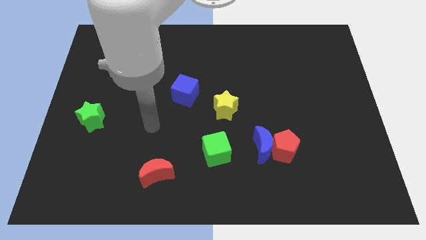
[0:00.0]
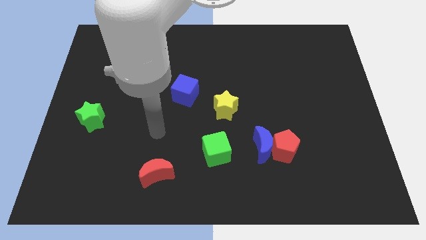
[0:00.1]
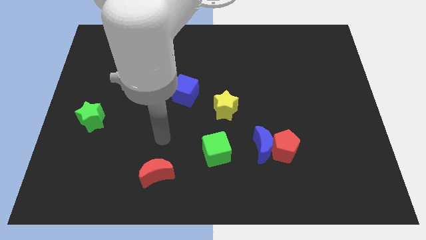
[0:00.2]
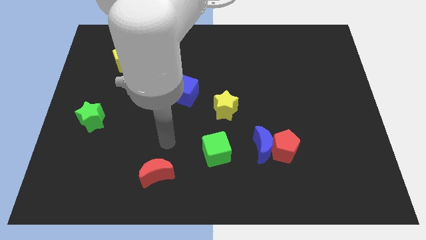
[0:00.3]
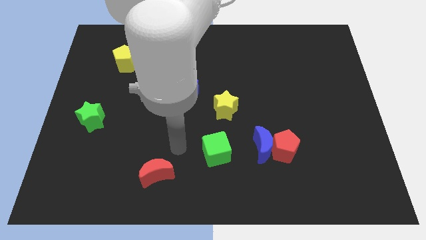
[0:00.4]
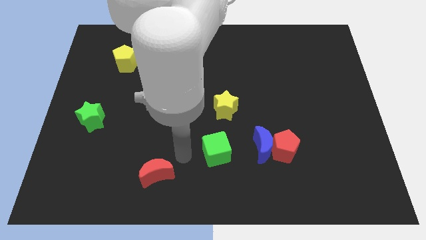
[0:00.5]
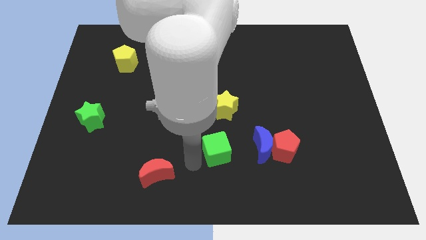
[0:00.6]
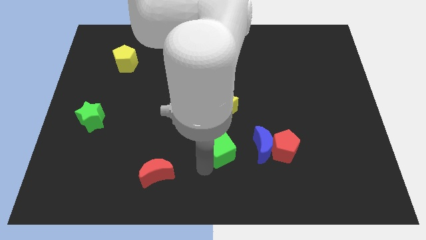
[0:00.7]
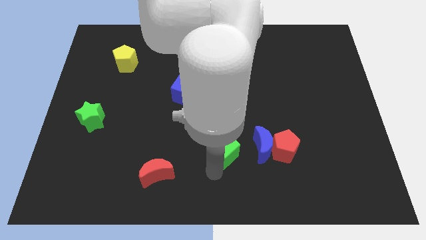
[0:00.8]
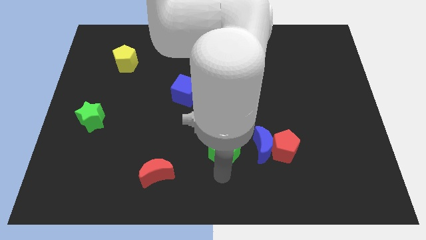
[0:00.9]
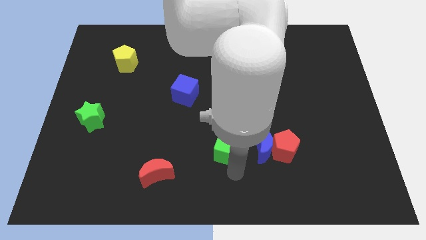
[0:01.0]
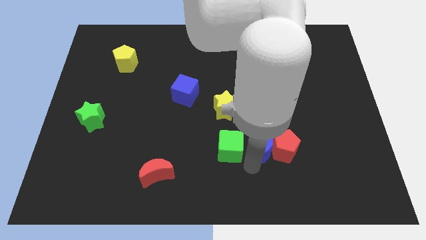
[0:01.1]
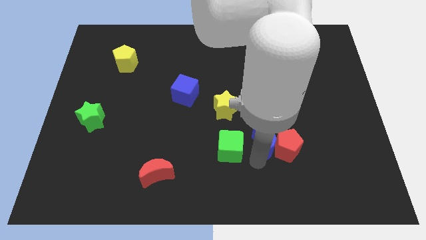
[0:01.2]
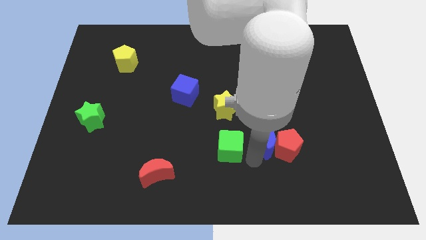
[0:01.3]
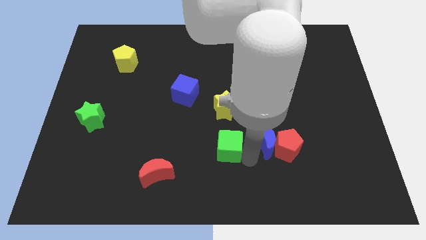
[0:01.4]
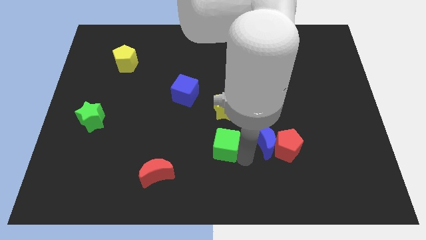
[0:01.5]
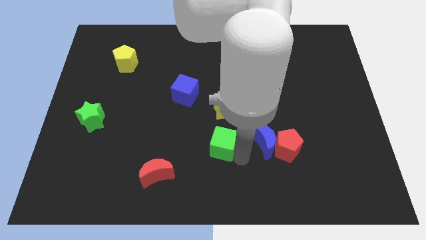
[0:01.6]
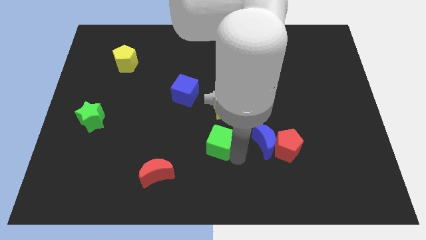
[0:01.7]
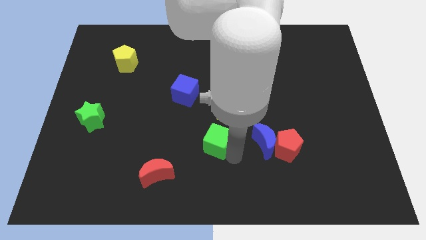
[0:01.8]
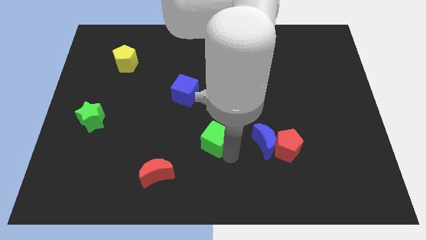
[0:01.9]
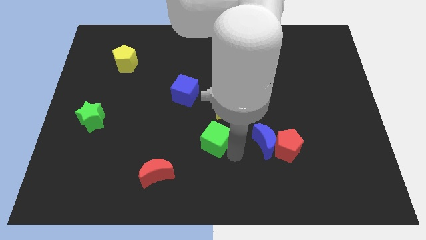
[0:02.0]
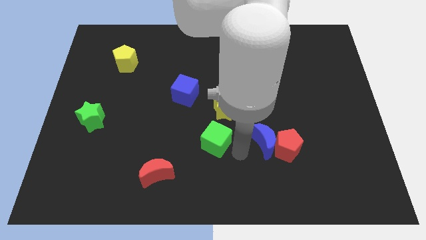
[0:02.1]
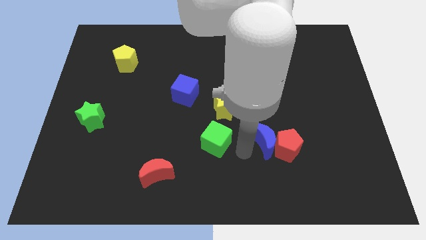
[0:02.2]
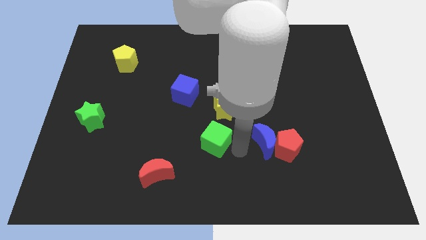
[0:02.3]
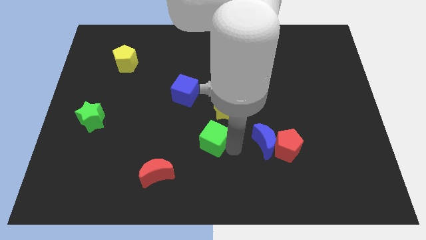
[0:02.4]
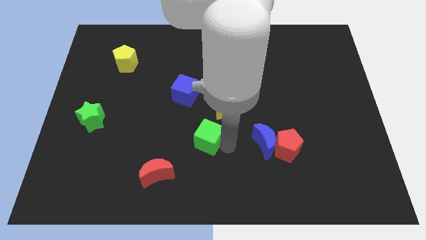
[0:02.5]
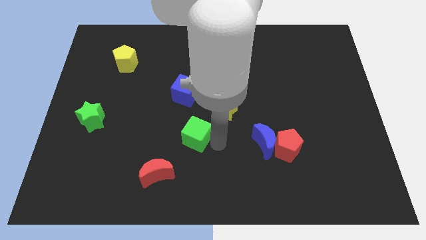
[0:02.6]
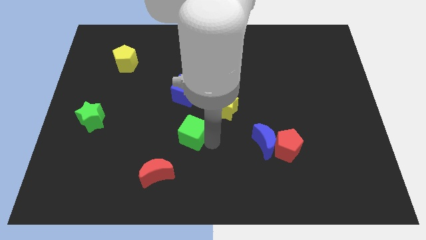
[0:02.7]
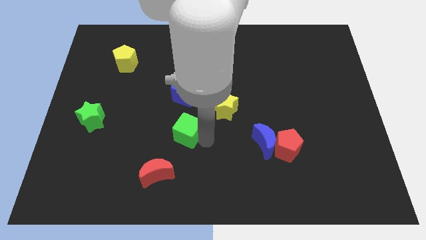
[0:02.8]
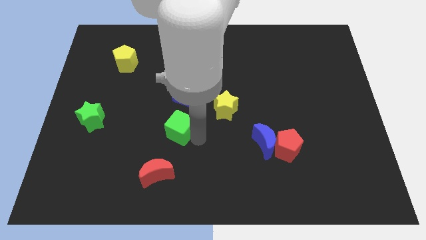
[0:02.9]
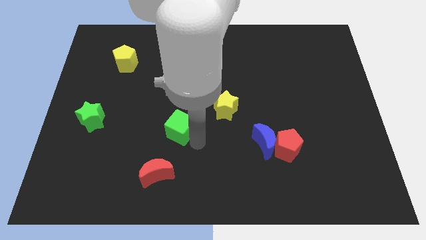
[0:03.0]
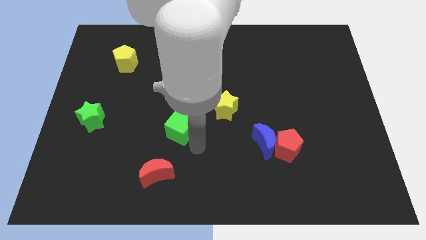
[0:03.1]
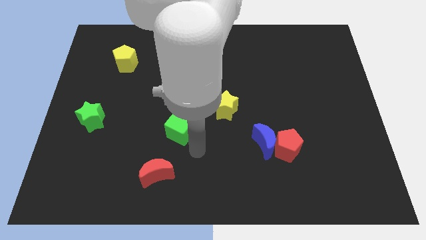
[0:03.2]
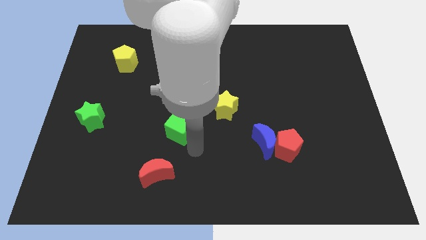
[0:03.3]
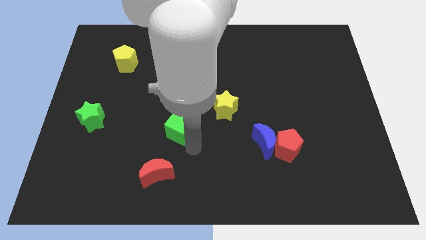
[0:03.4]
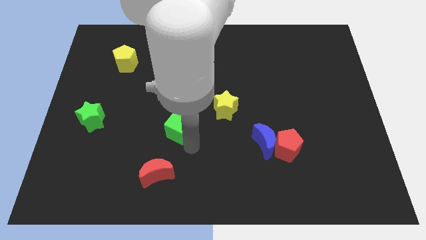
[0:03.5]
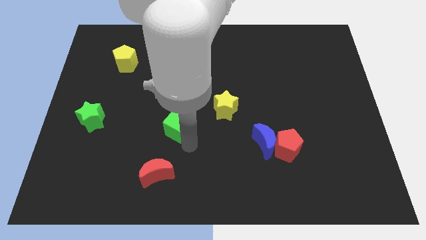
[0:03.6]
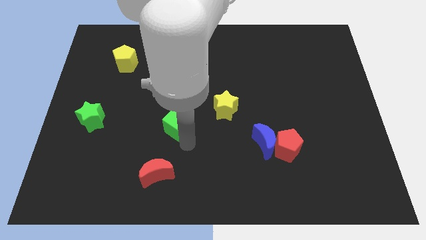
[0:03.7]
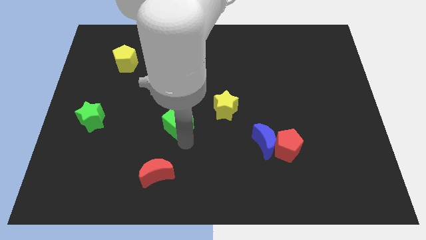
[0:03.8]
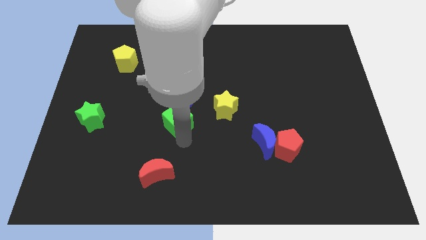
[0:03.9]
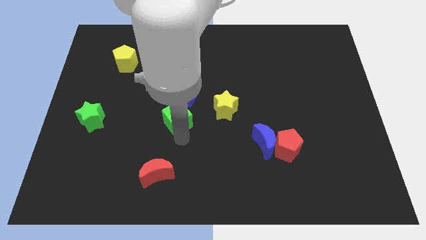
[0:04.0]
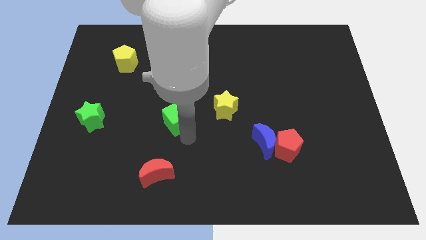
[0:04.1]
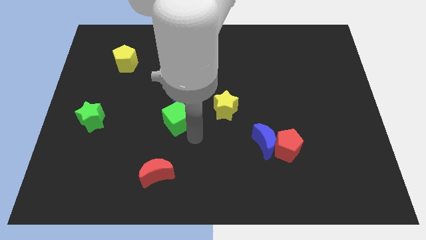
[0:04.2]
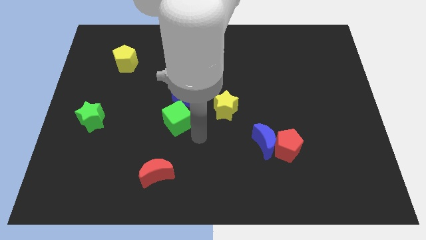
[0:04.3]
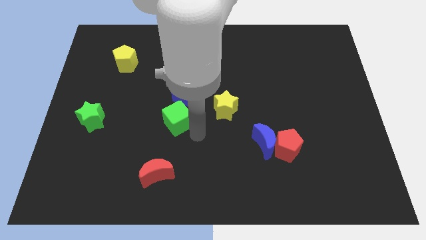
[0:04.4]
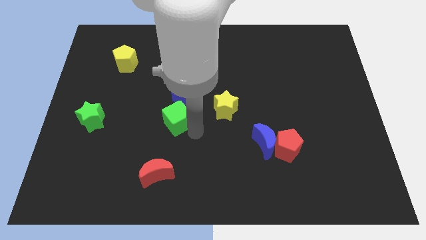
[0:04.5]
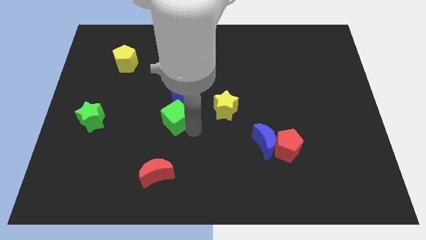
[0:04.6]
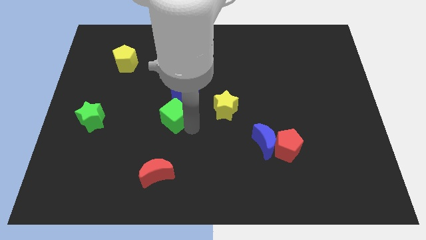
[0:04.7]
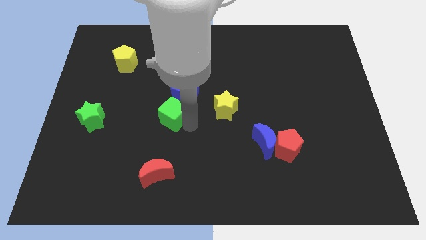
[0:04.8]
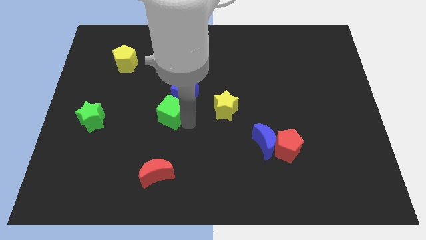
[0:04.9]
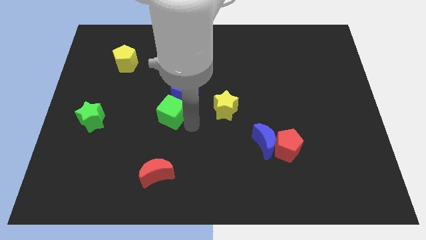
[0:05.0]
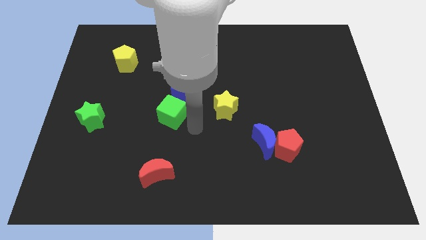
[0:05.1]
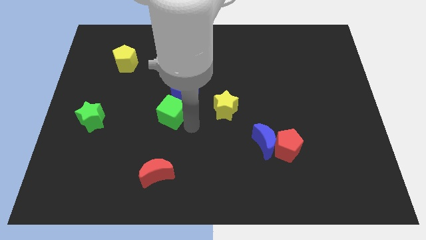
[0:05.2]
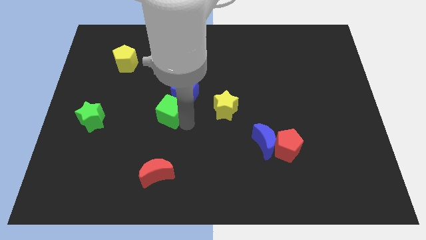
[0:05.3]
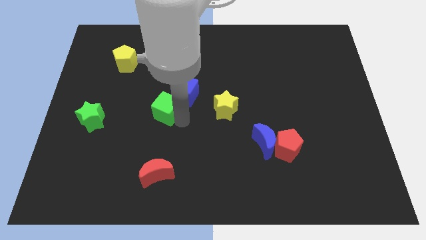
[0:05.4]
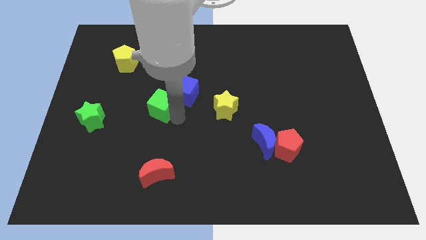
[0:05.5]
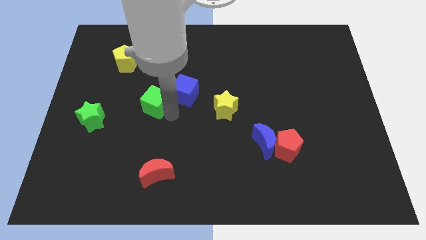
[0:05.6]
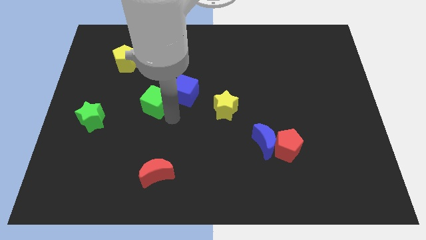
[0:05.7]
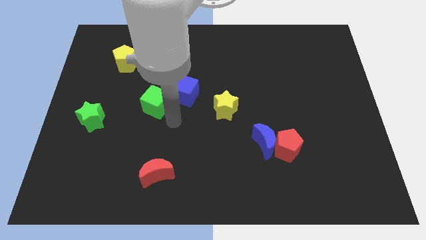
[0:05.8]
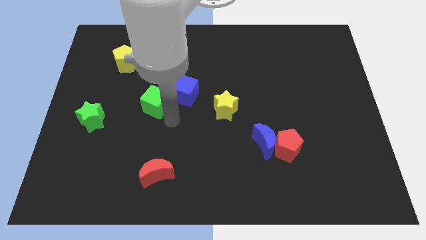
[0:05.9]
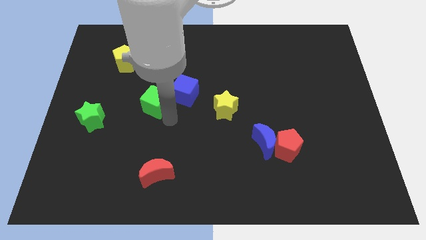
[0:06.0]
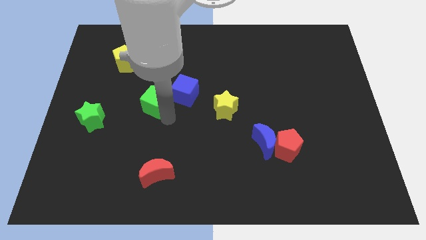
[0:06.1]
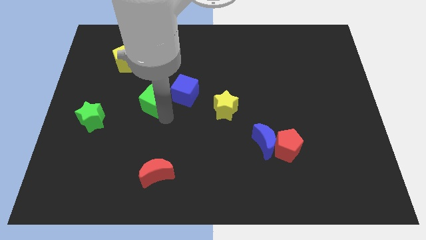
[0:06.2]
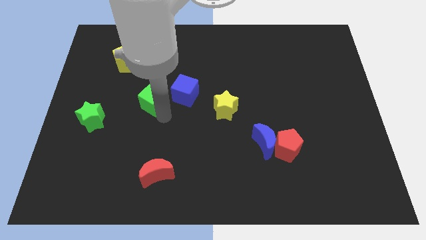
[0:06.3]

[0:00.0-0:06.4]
move the green cube diagonally up and to the left

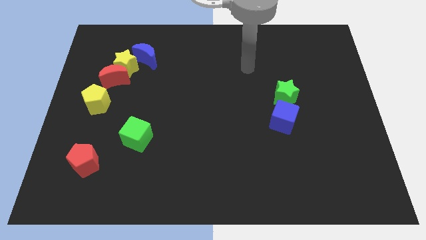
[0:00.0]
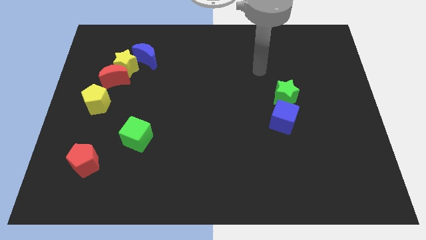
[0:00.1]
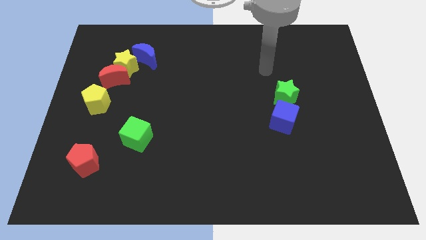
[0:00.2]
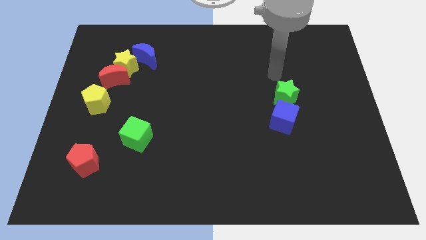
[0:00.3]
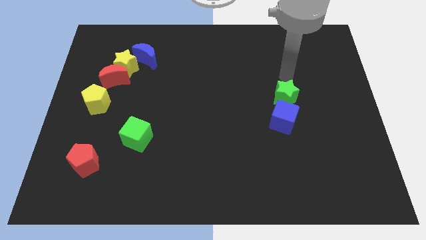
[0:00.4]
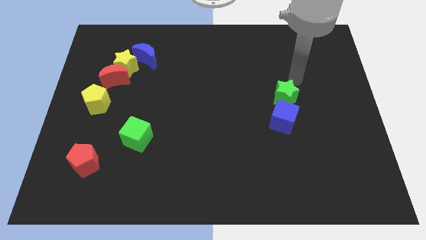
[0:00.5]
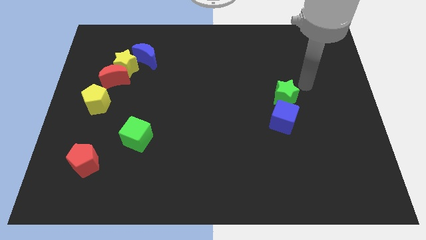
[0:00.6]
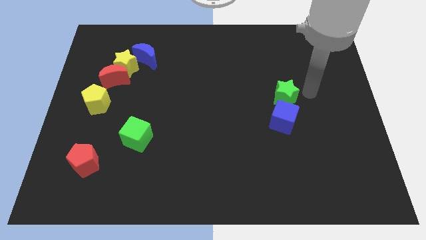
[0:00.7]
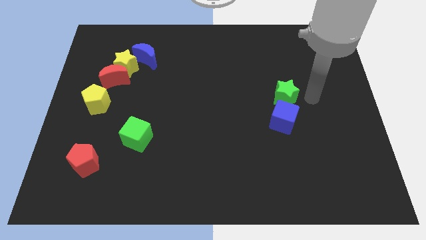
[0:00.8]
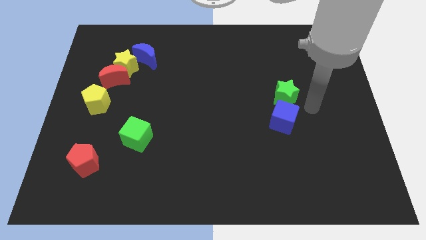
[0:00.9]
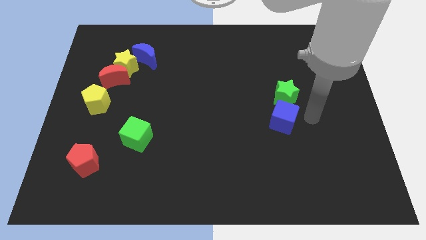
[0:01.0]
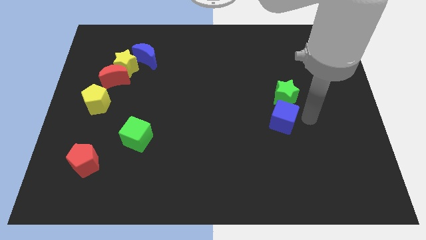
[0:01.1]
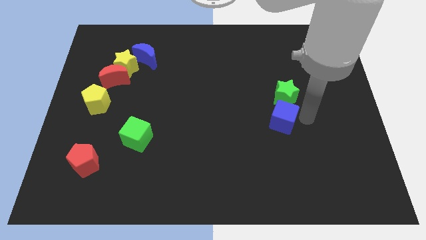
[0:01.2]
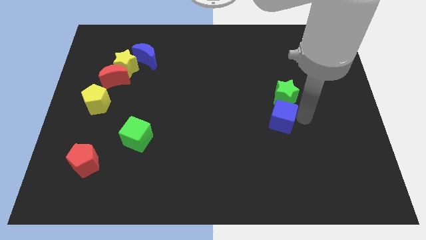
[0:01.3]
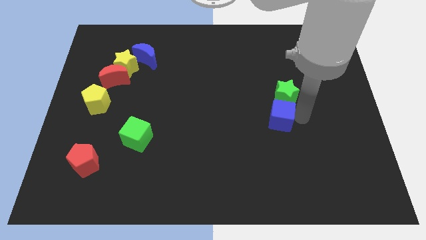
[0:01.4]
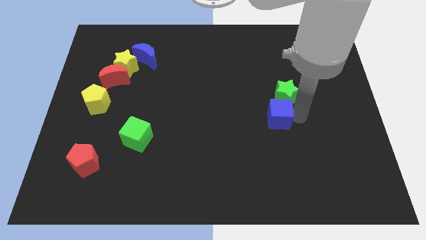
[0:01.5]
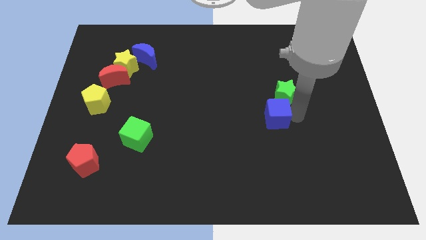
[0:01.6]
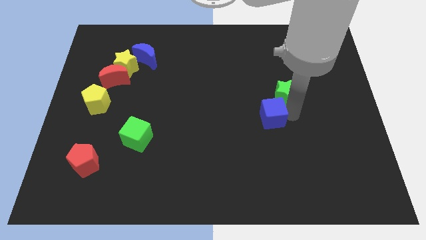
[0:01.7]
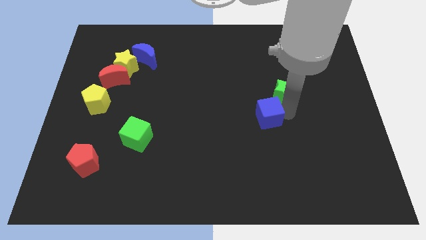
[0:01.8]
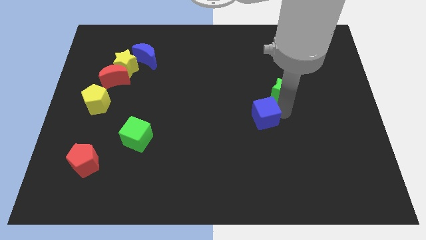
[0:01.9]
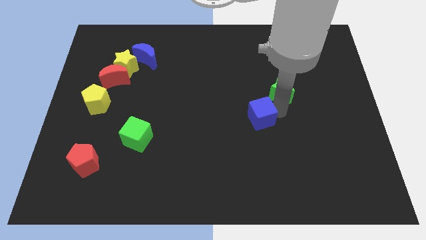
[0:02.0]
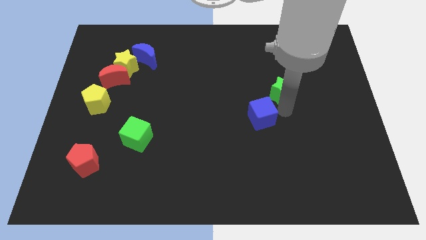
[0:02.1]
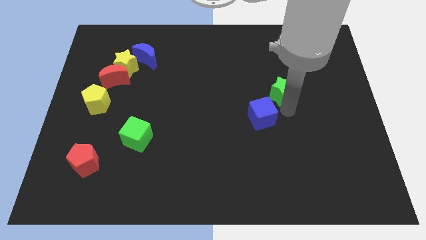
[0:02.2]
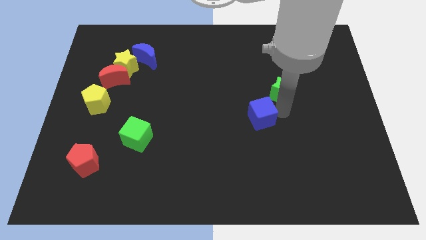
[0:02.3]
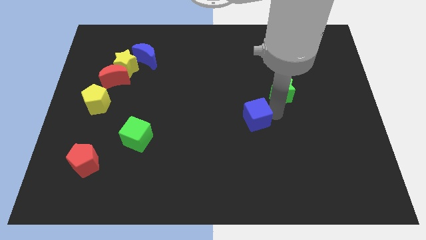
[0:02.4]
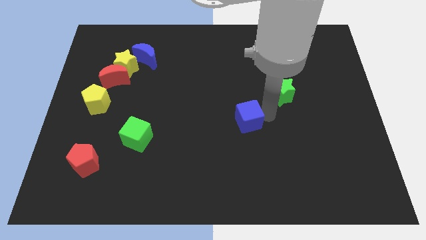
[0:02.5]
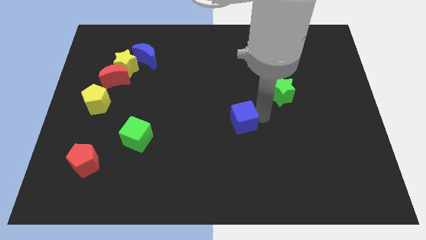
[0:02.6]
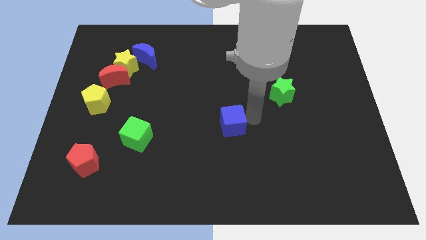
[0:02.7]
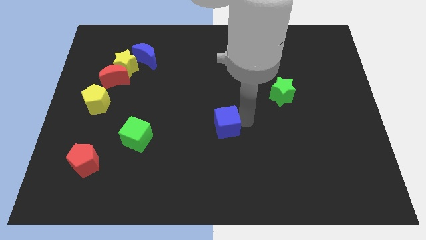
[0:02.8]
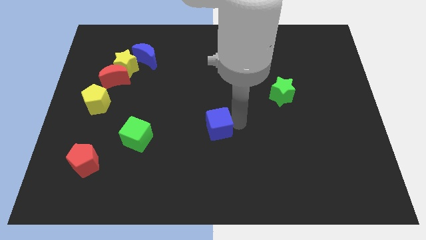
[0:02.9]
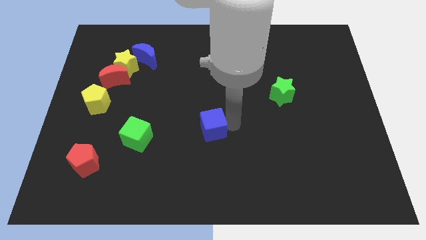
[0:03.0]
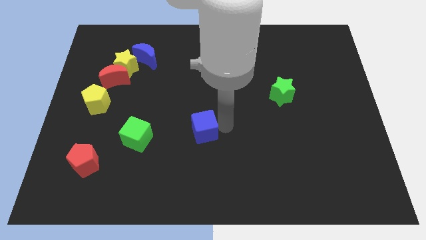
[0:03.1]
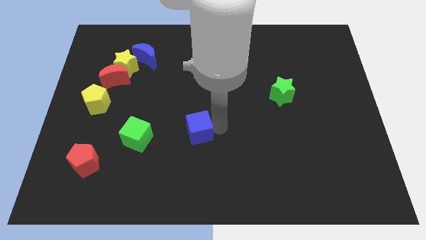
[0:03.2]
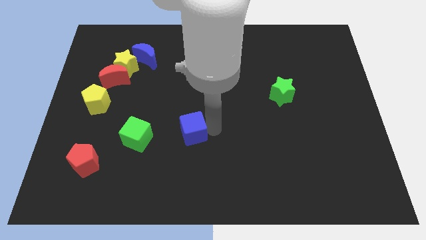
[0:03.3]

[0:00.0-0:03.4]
slide the blue cube left
